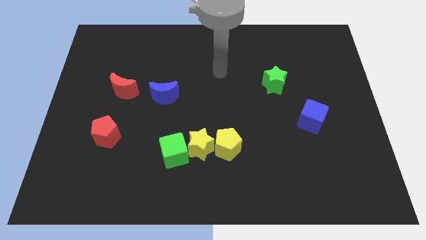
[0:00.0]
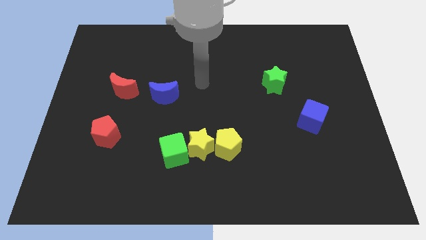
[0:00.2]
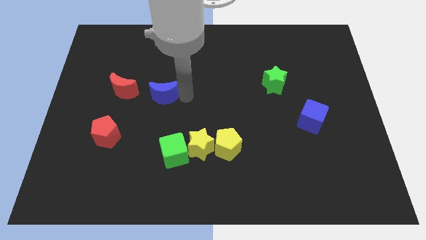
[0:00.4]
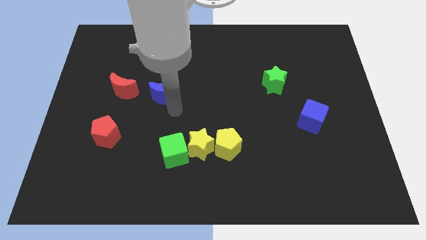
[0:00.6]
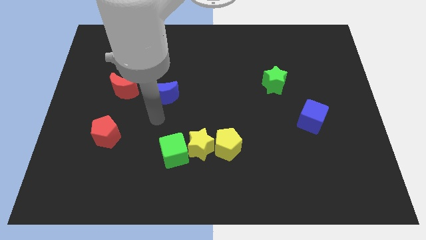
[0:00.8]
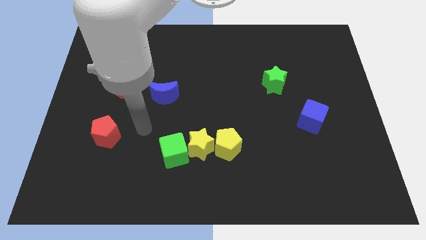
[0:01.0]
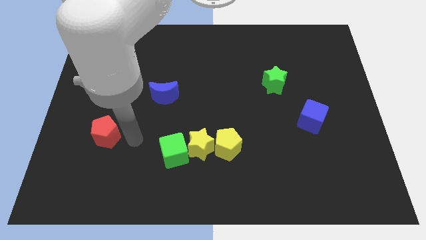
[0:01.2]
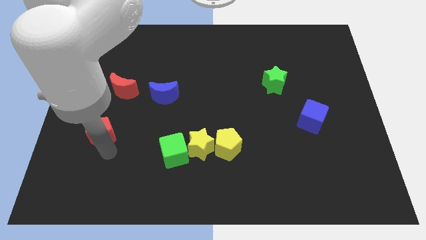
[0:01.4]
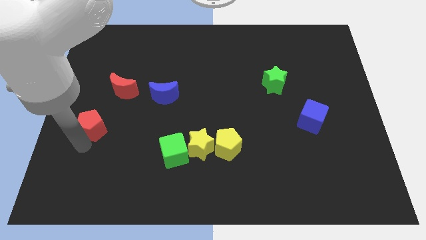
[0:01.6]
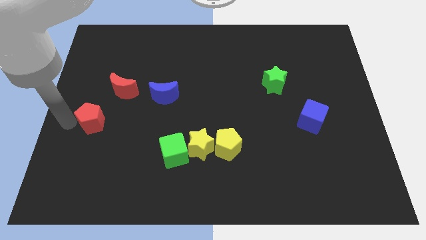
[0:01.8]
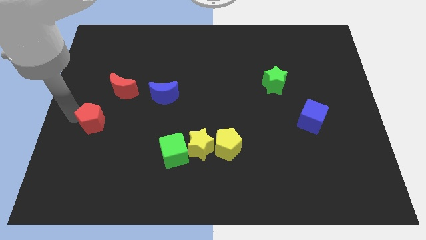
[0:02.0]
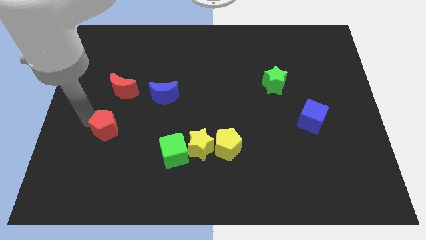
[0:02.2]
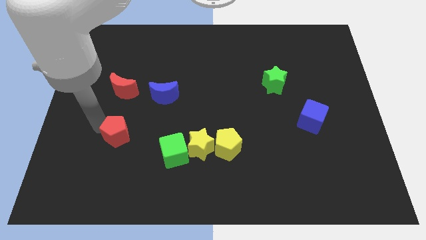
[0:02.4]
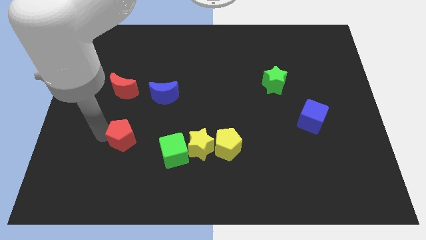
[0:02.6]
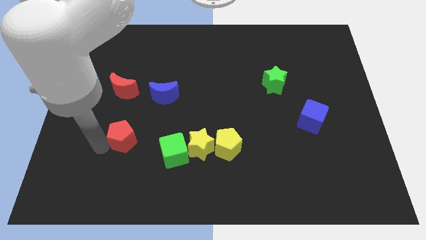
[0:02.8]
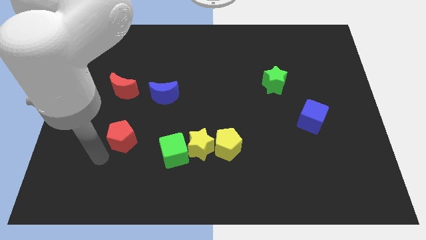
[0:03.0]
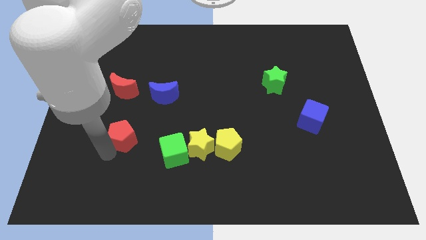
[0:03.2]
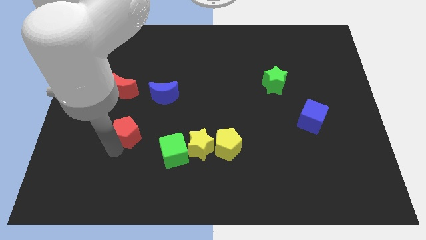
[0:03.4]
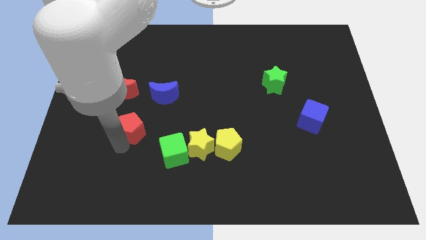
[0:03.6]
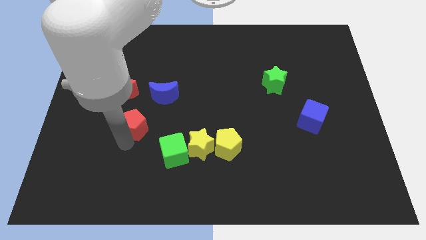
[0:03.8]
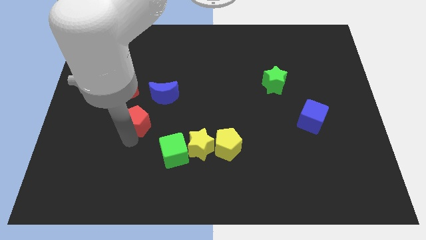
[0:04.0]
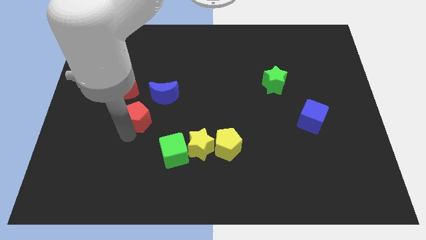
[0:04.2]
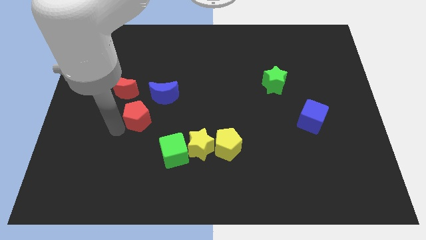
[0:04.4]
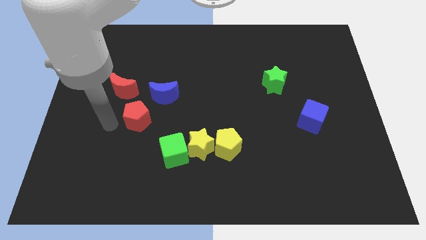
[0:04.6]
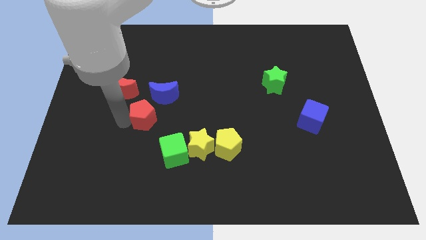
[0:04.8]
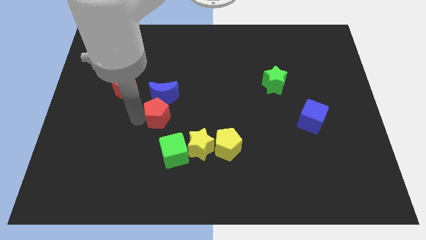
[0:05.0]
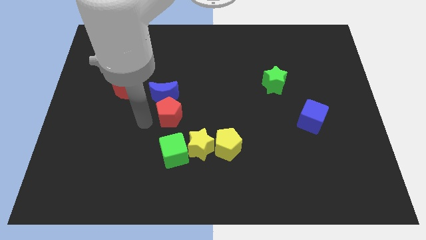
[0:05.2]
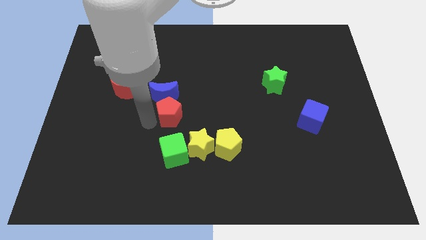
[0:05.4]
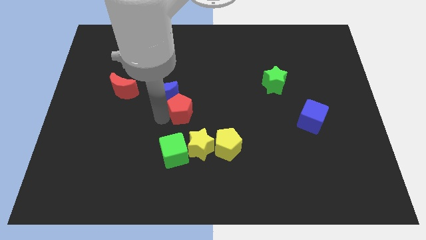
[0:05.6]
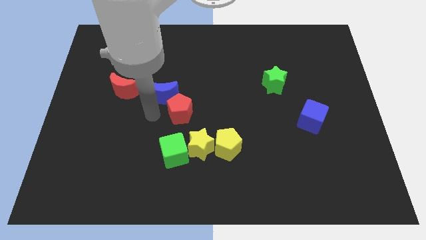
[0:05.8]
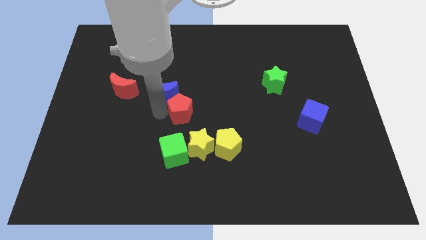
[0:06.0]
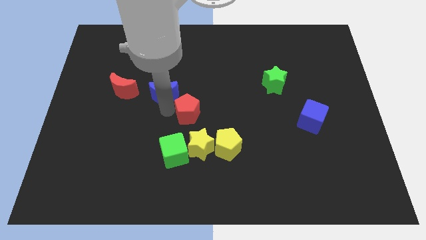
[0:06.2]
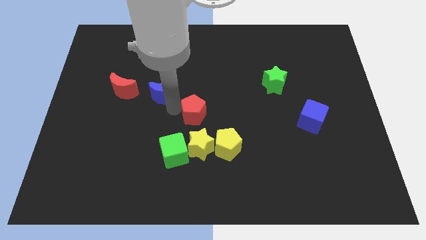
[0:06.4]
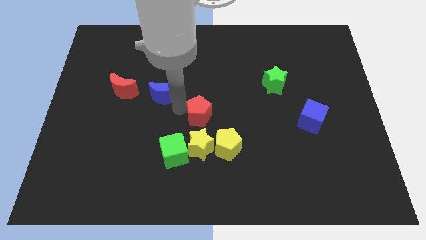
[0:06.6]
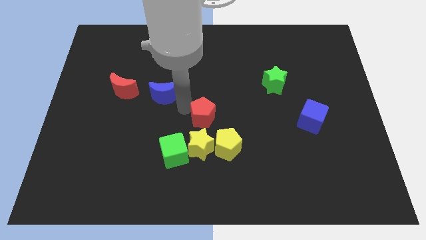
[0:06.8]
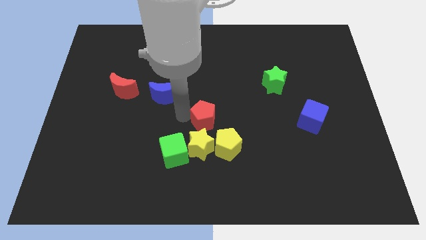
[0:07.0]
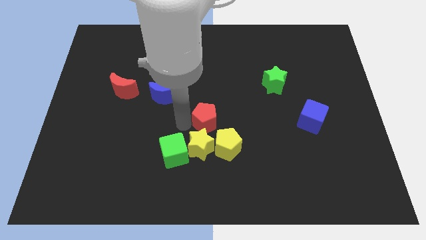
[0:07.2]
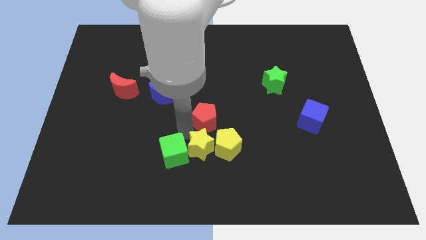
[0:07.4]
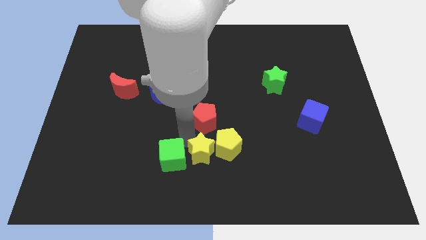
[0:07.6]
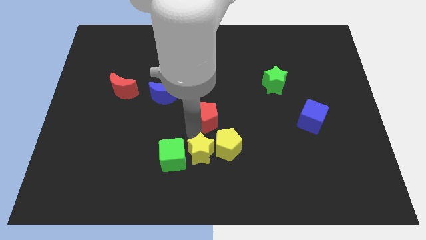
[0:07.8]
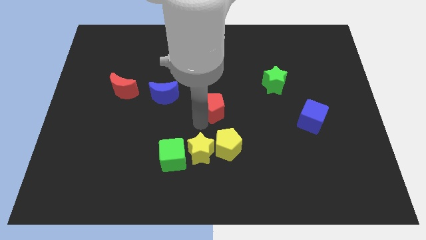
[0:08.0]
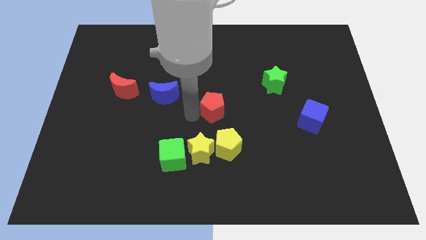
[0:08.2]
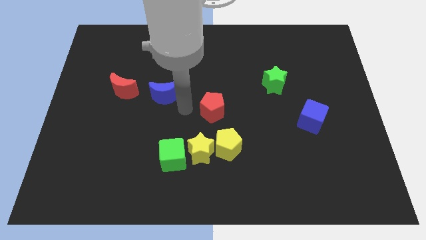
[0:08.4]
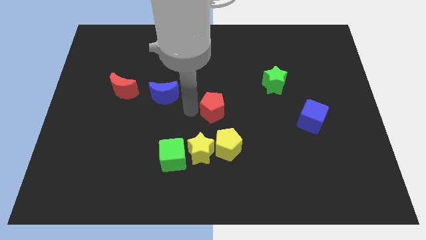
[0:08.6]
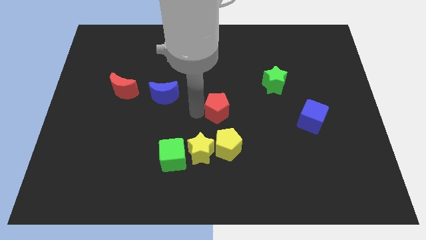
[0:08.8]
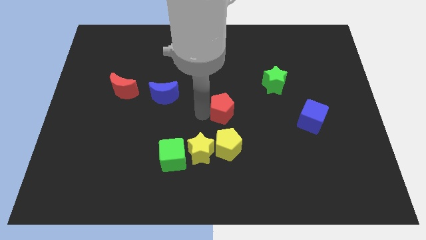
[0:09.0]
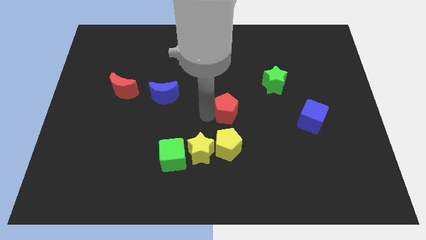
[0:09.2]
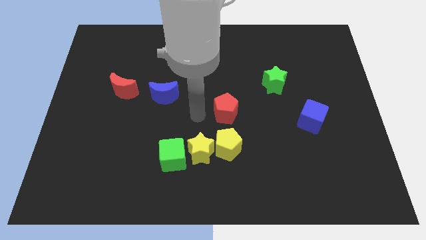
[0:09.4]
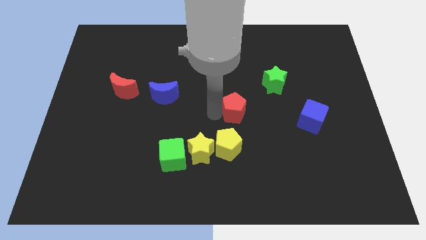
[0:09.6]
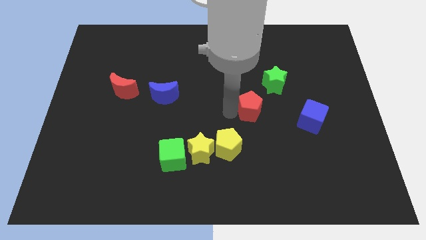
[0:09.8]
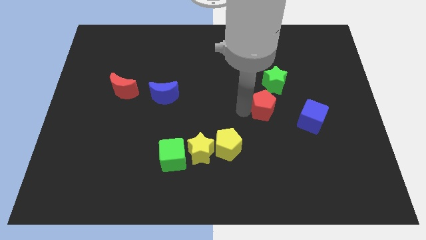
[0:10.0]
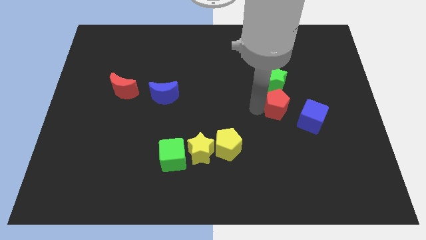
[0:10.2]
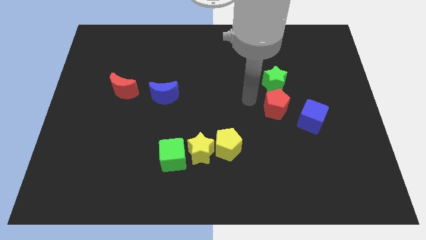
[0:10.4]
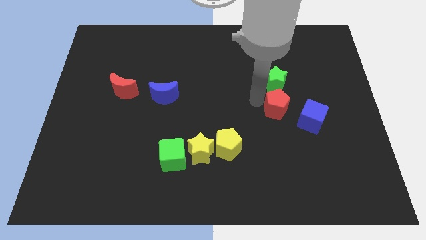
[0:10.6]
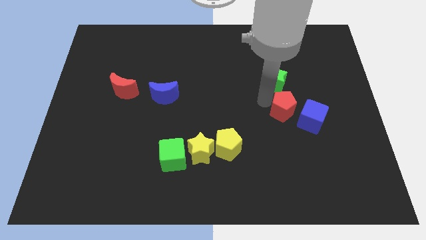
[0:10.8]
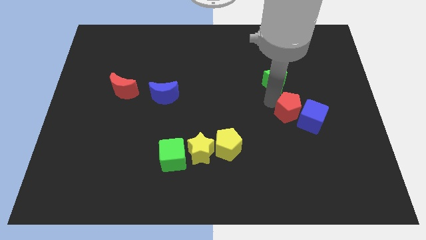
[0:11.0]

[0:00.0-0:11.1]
put the red pentagon to the blue cube

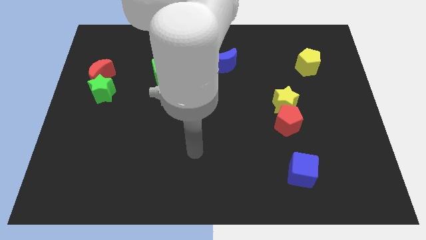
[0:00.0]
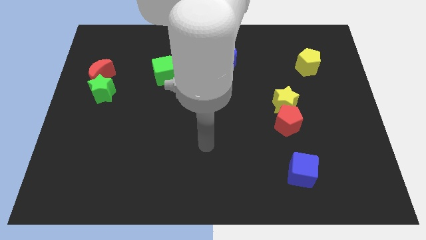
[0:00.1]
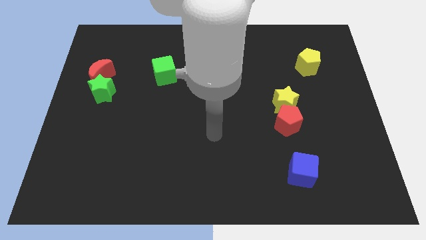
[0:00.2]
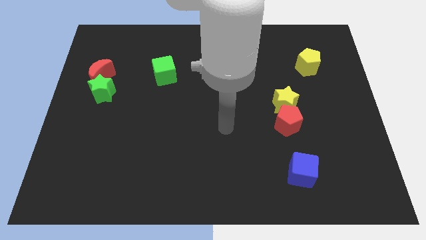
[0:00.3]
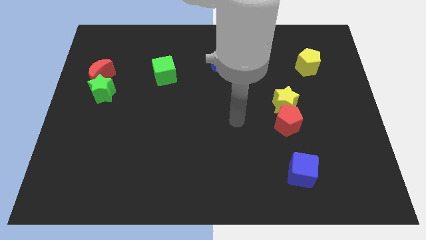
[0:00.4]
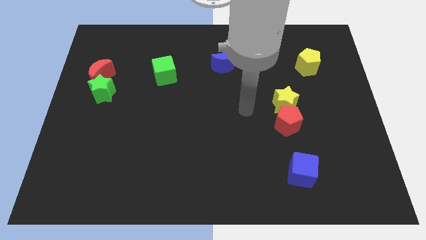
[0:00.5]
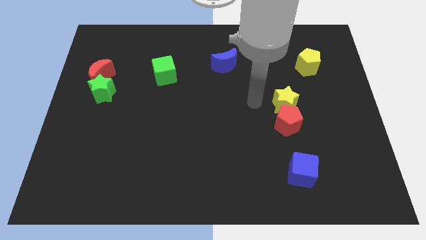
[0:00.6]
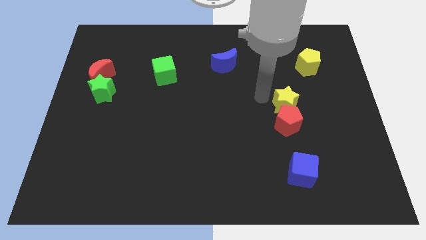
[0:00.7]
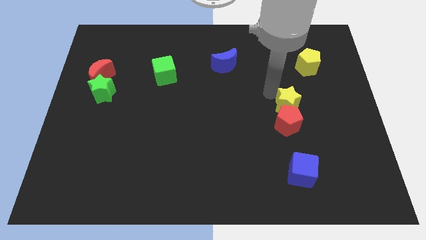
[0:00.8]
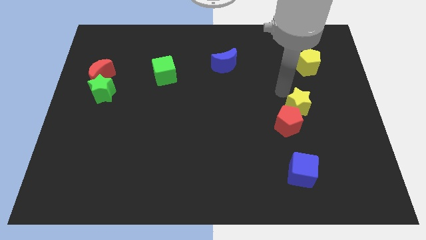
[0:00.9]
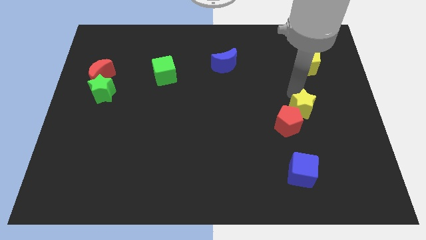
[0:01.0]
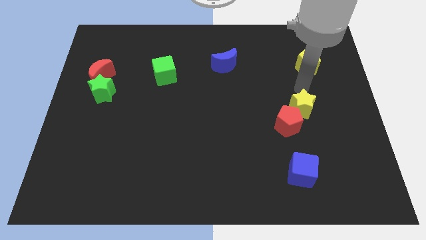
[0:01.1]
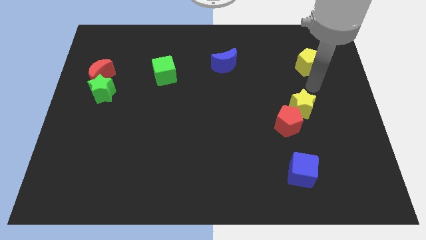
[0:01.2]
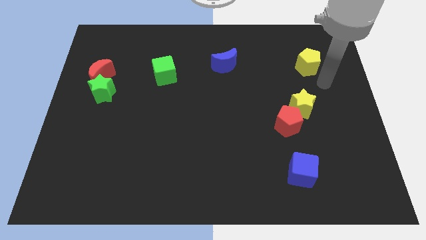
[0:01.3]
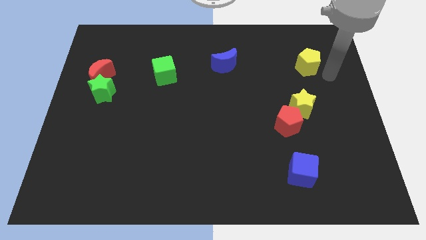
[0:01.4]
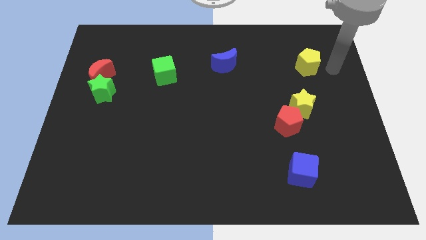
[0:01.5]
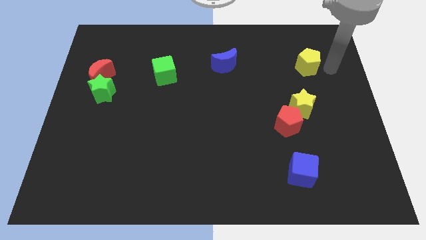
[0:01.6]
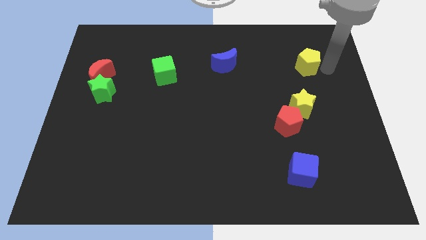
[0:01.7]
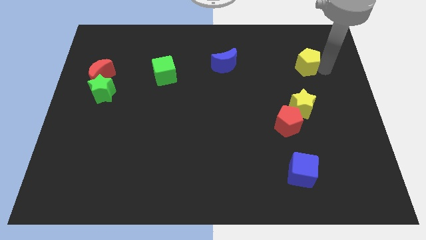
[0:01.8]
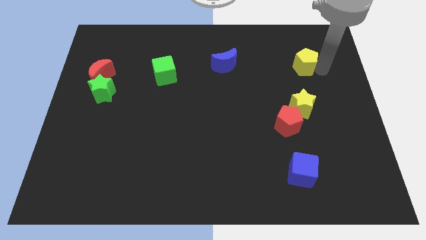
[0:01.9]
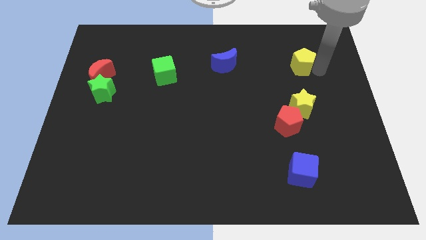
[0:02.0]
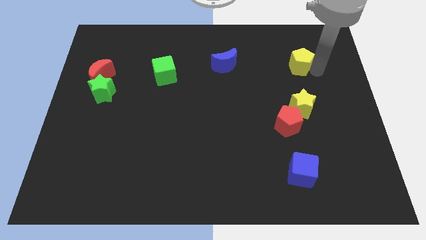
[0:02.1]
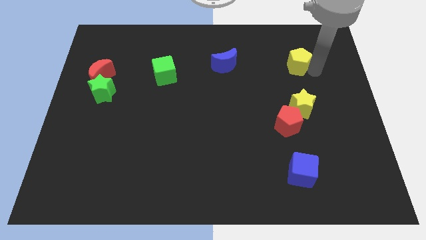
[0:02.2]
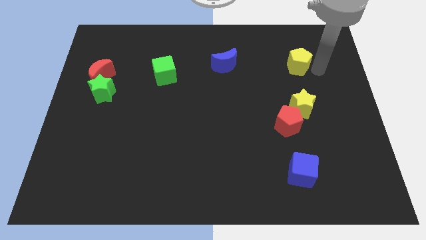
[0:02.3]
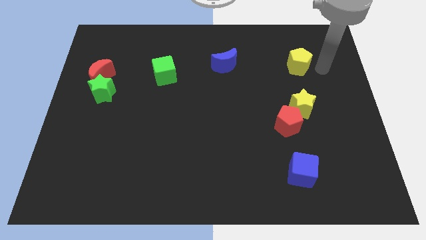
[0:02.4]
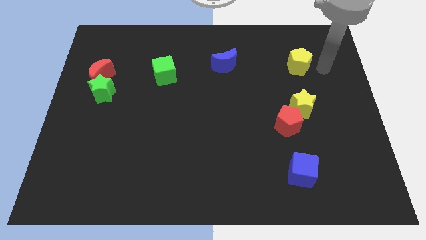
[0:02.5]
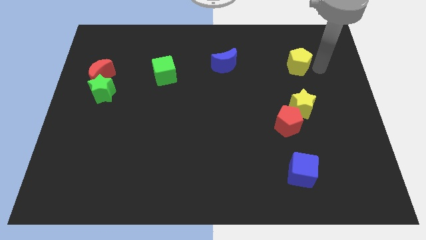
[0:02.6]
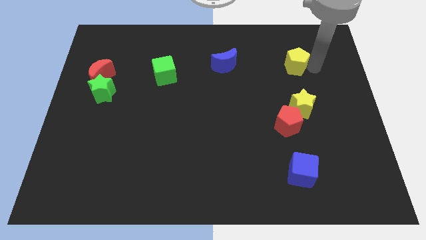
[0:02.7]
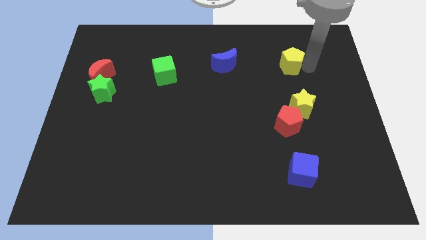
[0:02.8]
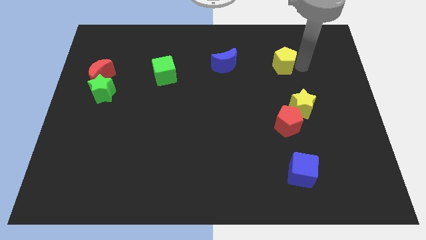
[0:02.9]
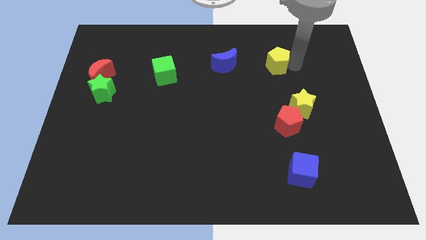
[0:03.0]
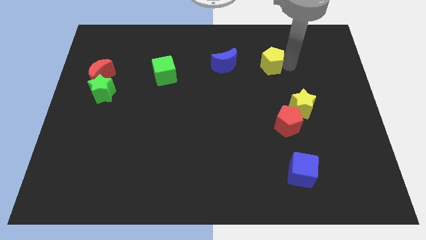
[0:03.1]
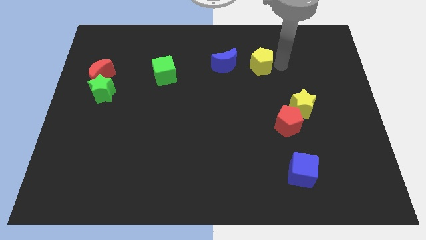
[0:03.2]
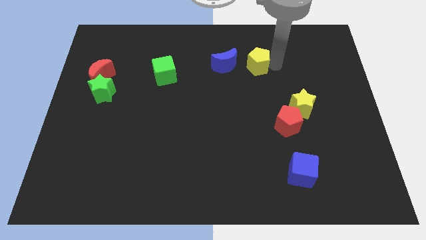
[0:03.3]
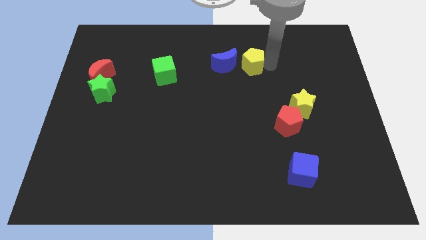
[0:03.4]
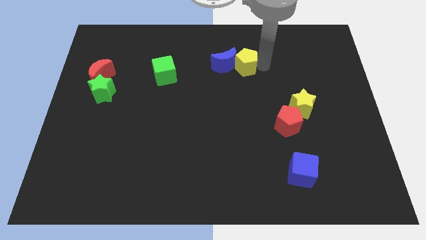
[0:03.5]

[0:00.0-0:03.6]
push the yellow pentagon towards the blue moon
